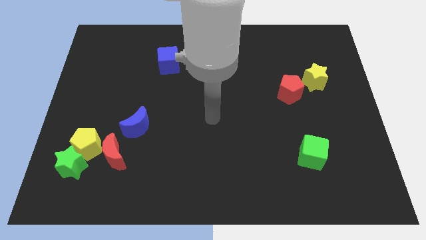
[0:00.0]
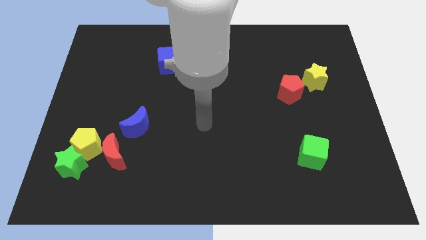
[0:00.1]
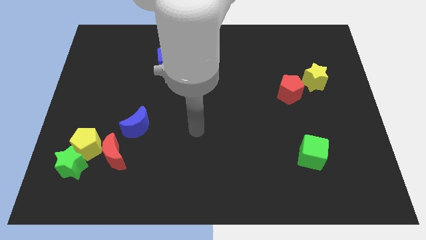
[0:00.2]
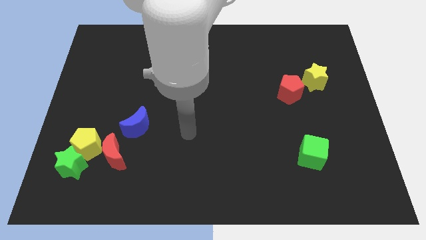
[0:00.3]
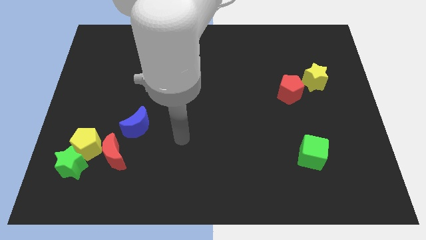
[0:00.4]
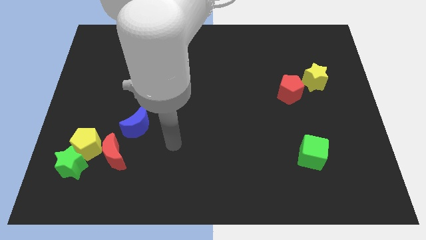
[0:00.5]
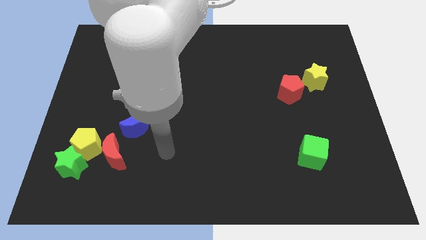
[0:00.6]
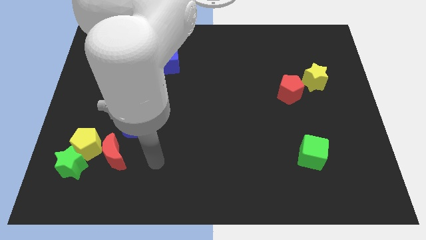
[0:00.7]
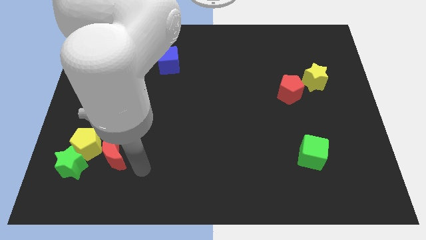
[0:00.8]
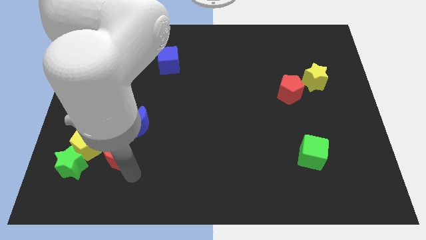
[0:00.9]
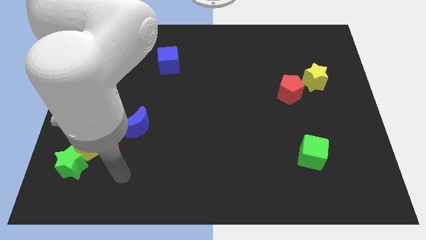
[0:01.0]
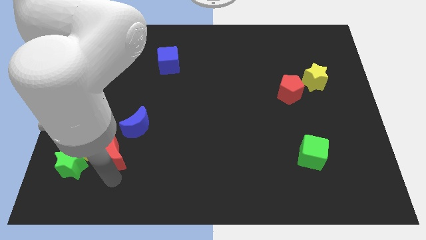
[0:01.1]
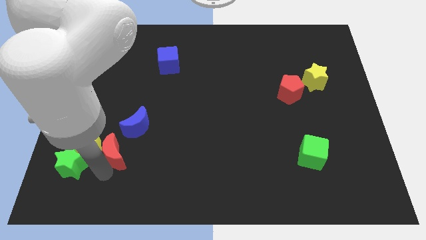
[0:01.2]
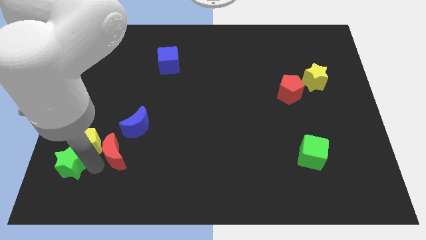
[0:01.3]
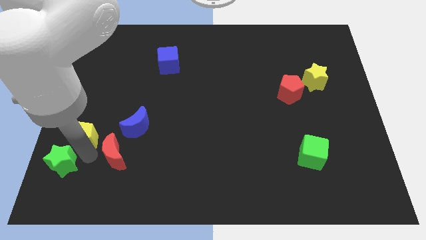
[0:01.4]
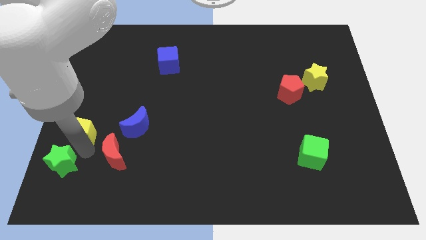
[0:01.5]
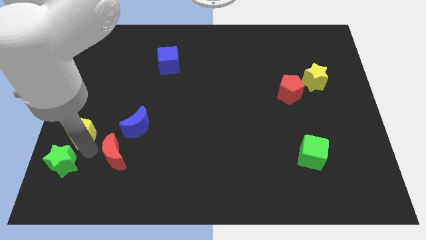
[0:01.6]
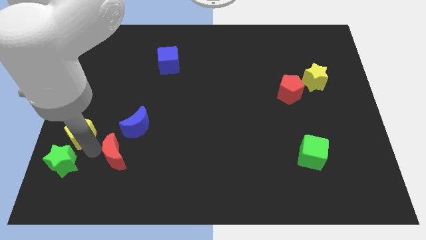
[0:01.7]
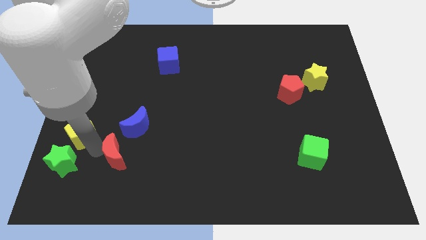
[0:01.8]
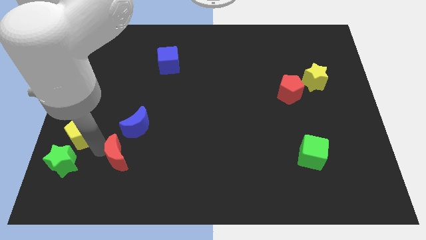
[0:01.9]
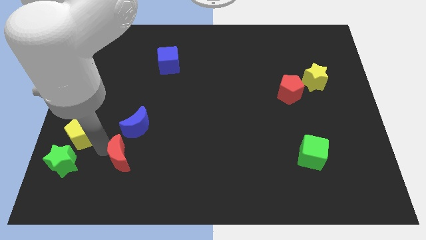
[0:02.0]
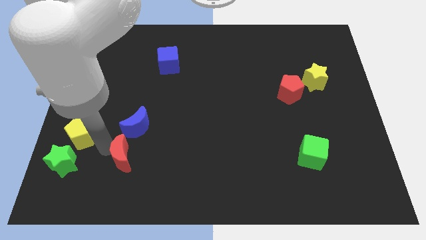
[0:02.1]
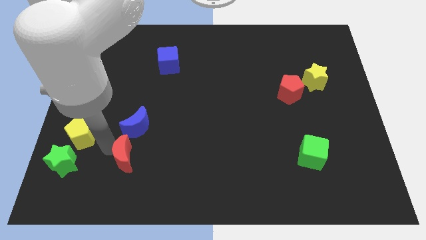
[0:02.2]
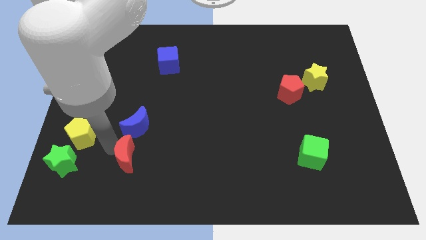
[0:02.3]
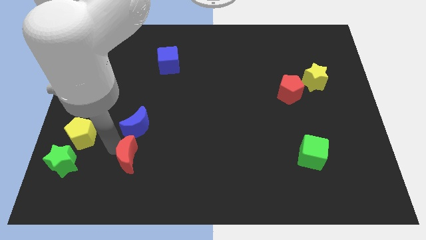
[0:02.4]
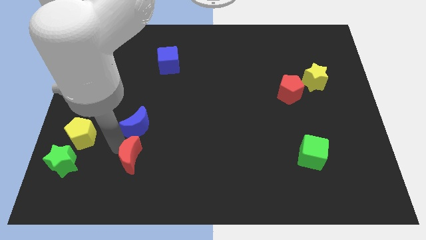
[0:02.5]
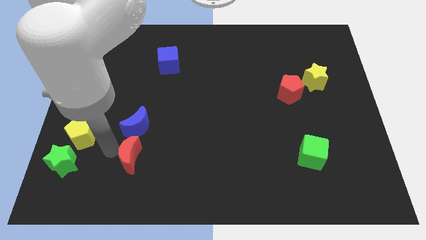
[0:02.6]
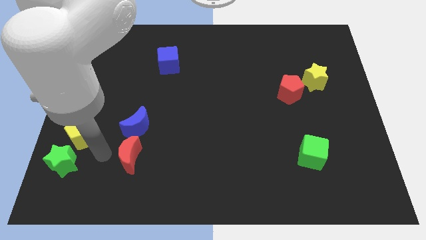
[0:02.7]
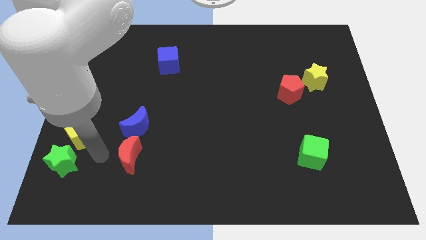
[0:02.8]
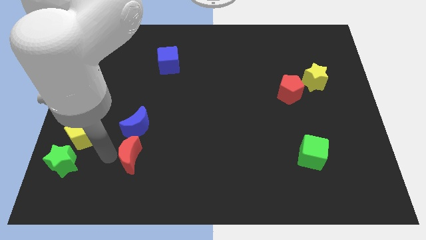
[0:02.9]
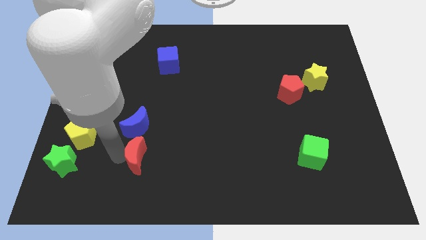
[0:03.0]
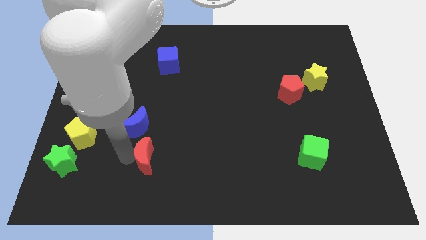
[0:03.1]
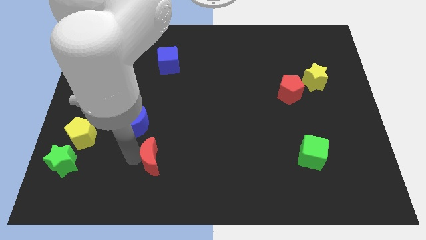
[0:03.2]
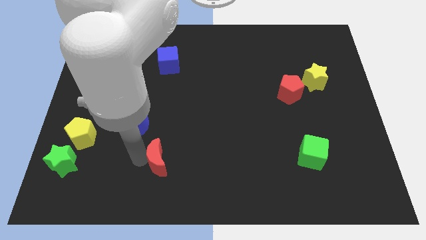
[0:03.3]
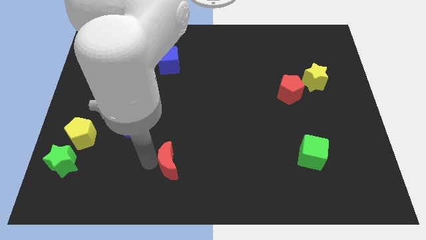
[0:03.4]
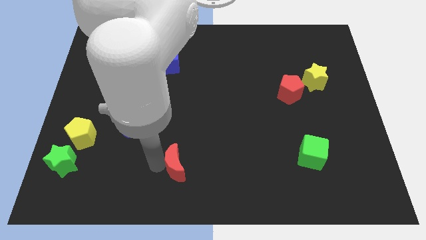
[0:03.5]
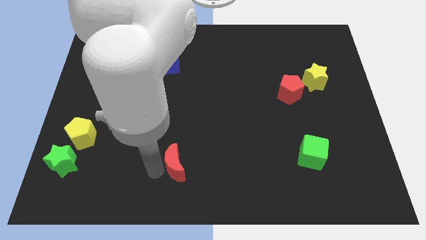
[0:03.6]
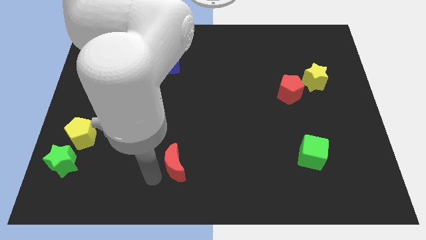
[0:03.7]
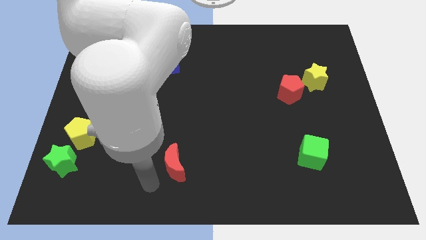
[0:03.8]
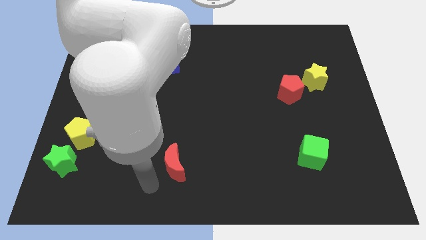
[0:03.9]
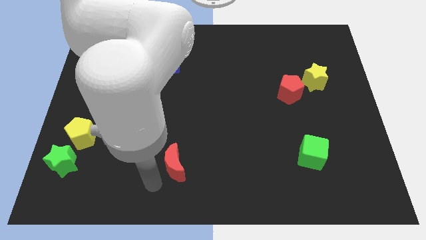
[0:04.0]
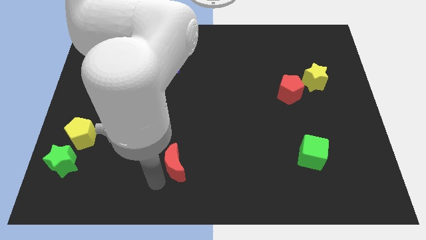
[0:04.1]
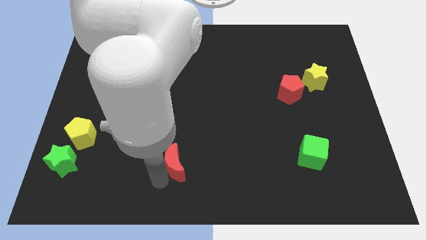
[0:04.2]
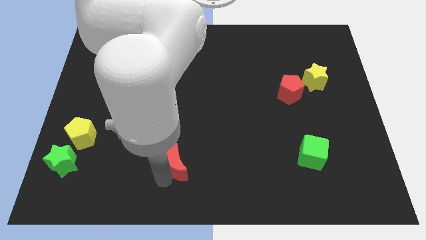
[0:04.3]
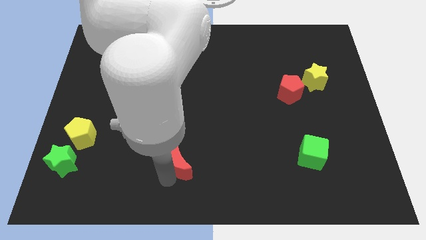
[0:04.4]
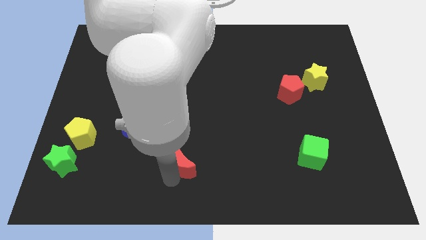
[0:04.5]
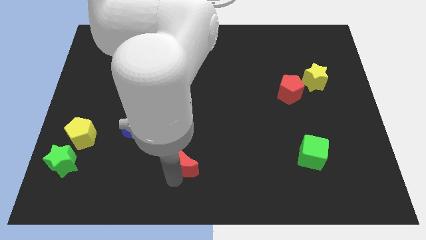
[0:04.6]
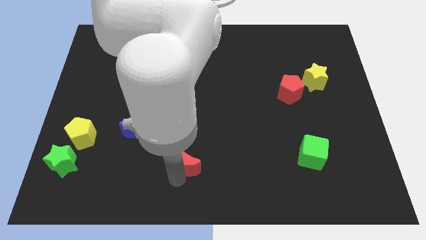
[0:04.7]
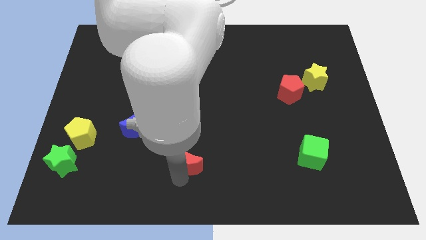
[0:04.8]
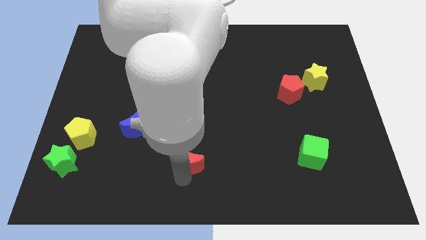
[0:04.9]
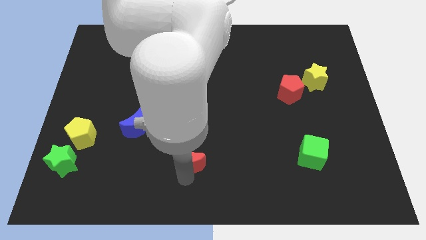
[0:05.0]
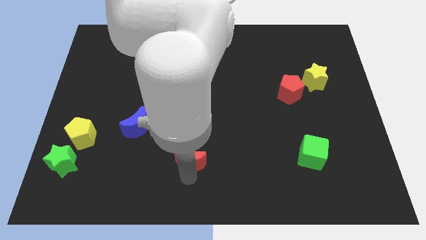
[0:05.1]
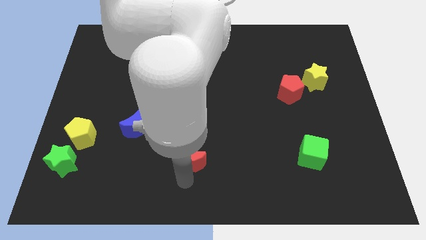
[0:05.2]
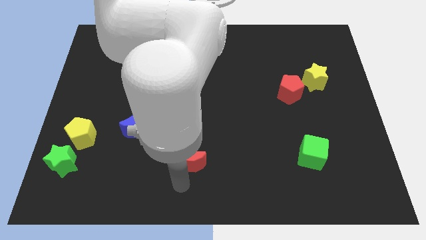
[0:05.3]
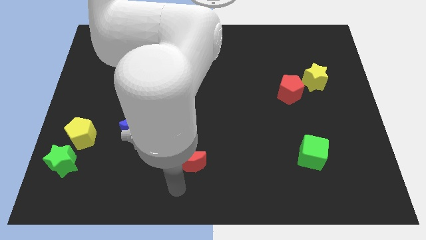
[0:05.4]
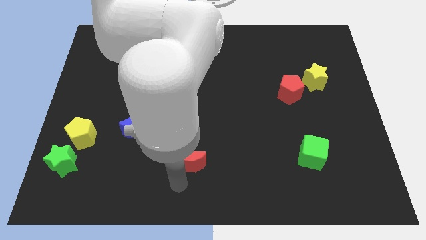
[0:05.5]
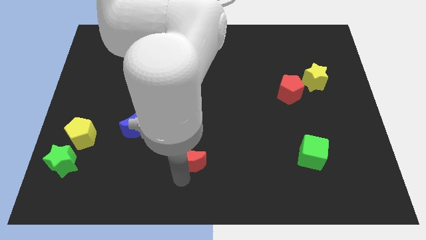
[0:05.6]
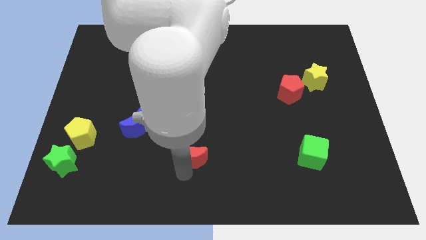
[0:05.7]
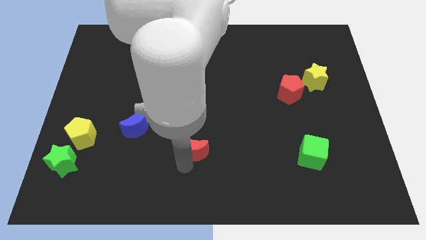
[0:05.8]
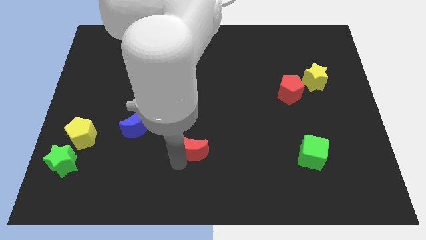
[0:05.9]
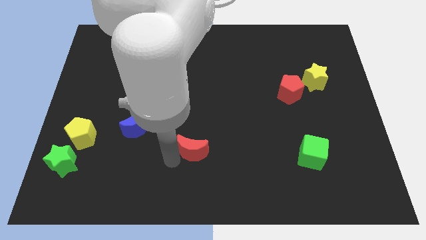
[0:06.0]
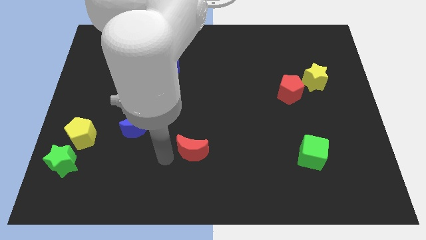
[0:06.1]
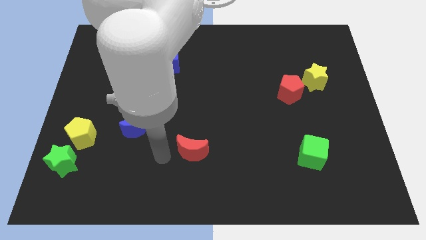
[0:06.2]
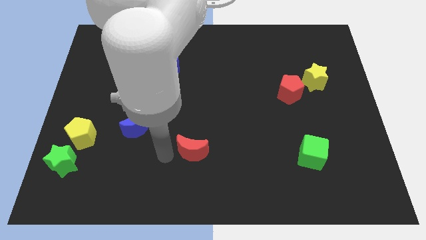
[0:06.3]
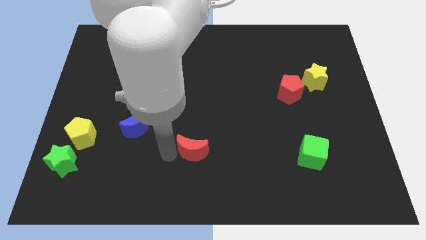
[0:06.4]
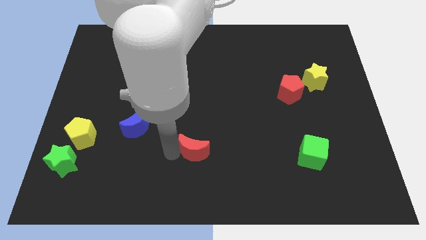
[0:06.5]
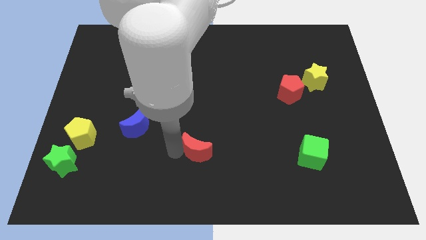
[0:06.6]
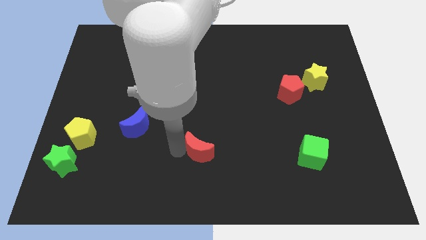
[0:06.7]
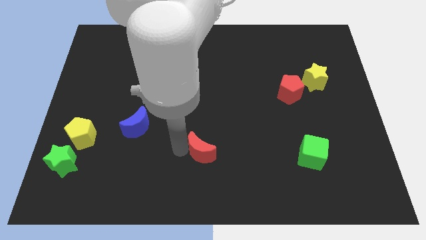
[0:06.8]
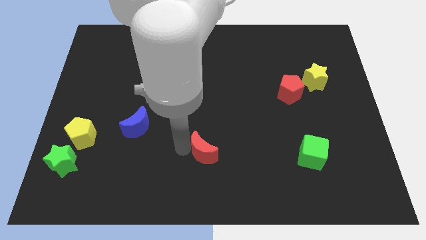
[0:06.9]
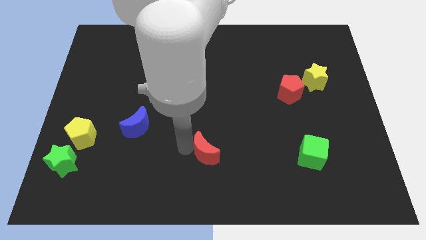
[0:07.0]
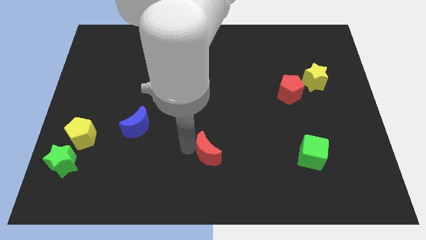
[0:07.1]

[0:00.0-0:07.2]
slide the red moon right

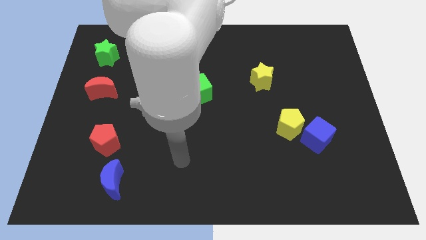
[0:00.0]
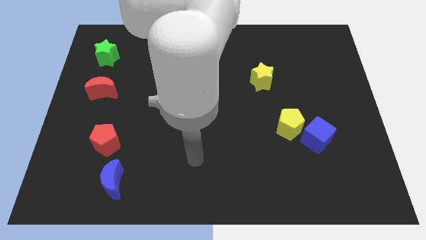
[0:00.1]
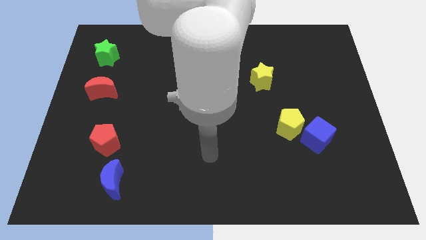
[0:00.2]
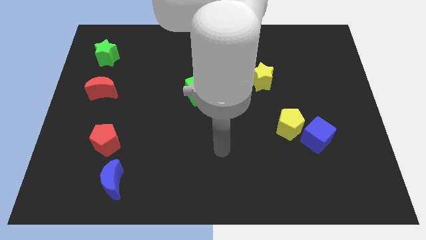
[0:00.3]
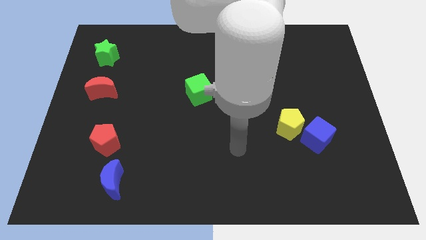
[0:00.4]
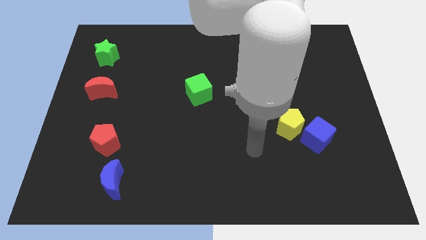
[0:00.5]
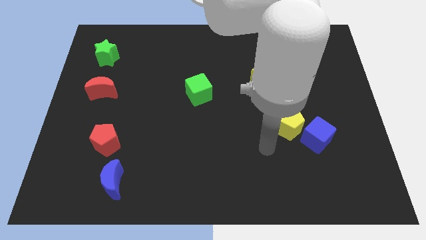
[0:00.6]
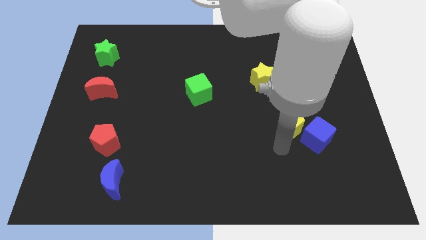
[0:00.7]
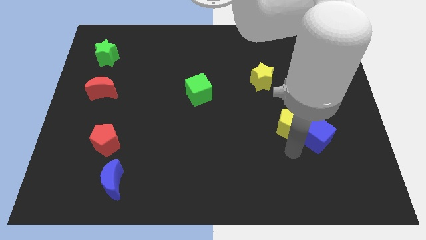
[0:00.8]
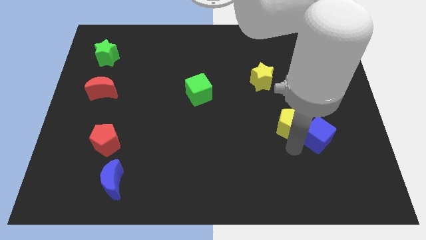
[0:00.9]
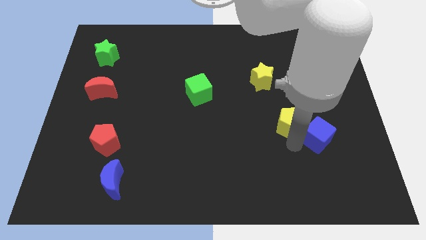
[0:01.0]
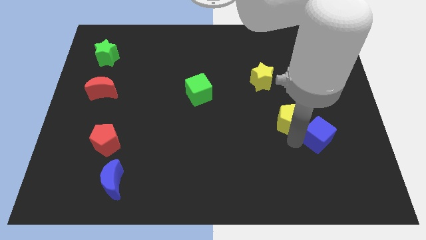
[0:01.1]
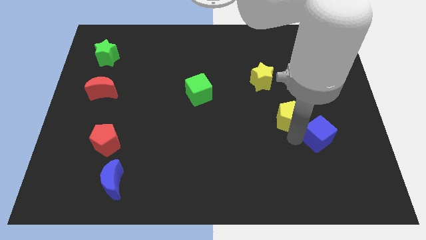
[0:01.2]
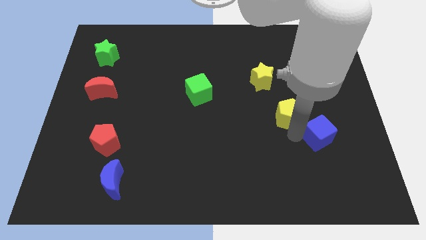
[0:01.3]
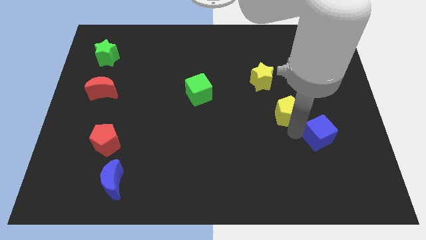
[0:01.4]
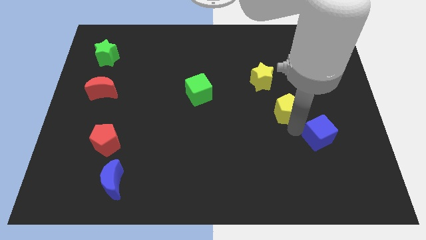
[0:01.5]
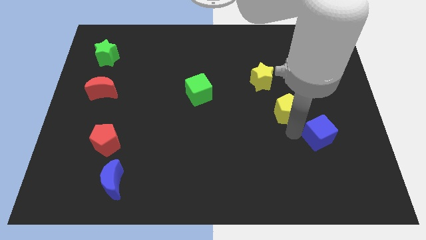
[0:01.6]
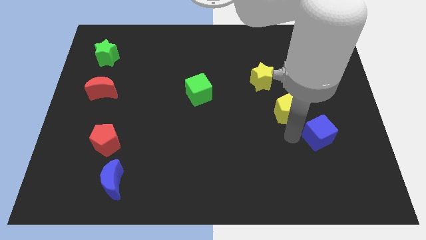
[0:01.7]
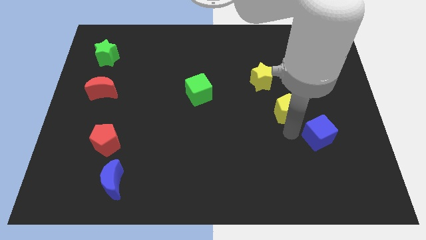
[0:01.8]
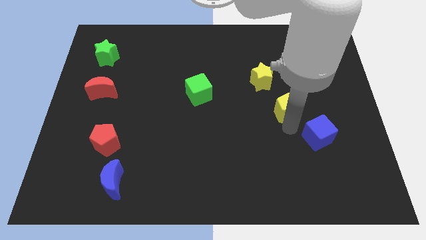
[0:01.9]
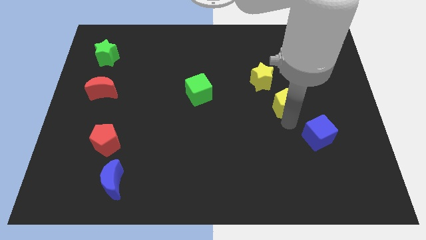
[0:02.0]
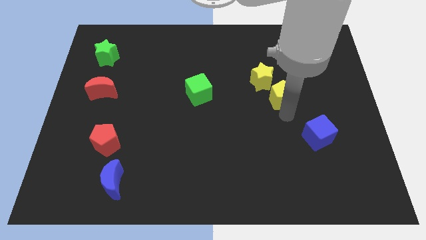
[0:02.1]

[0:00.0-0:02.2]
slide the yellow pentagon up somewhat
